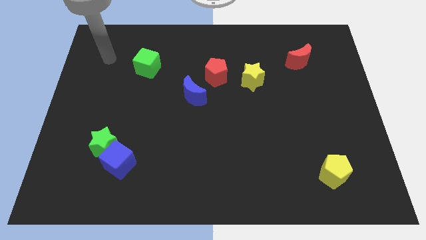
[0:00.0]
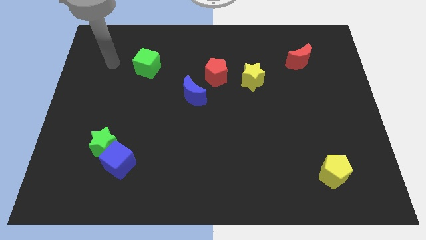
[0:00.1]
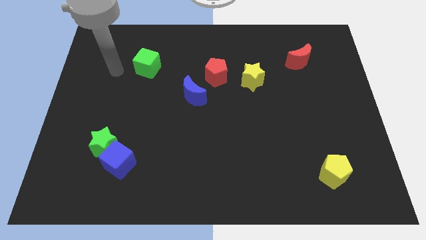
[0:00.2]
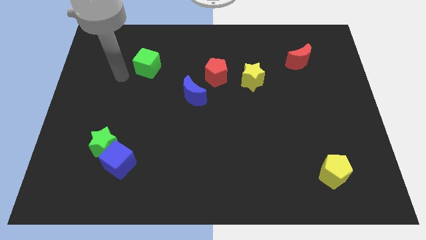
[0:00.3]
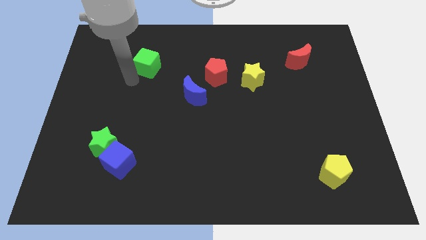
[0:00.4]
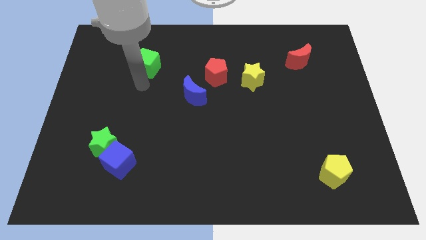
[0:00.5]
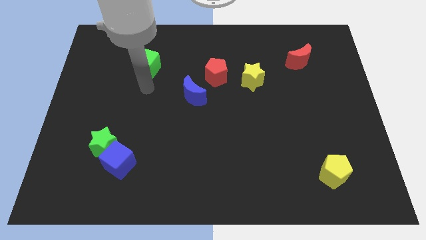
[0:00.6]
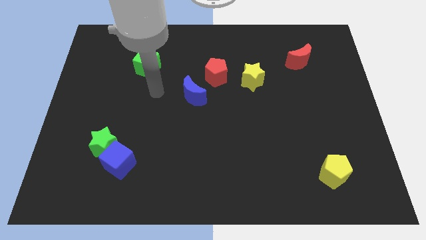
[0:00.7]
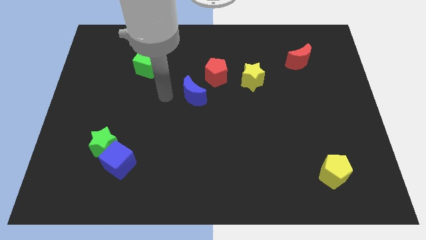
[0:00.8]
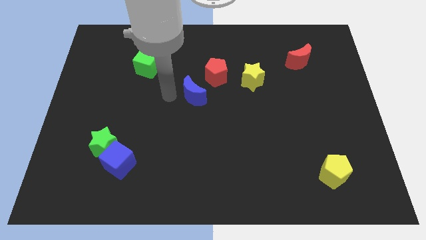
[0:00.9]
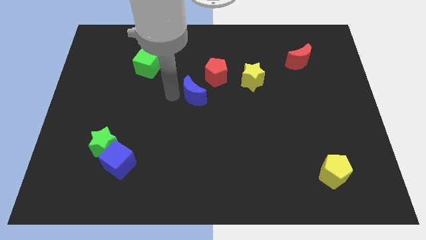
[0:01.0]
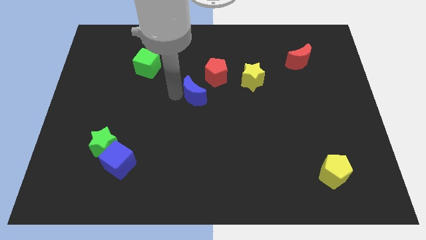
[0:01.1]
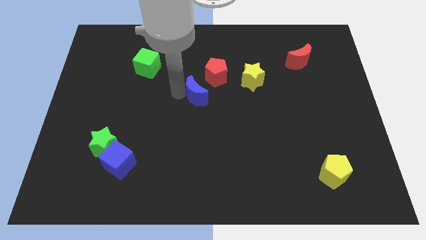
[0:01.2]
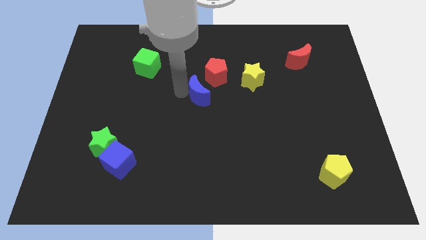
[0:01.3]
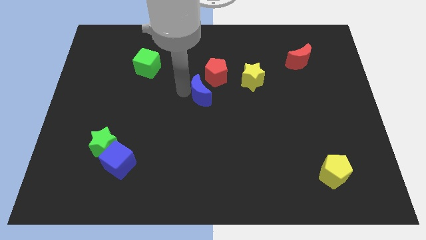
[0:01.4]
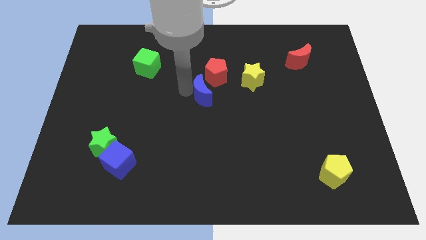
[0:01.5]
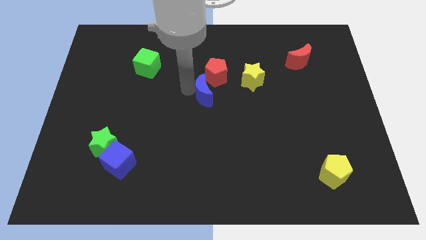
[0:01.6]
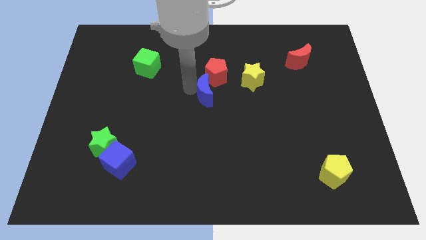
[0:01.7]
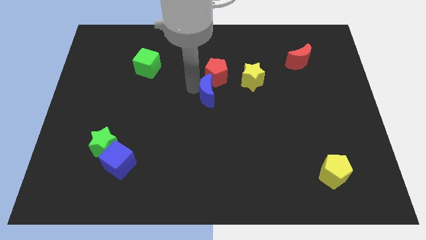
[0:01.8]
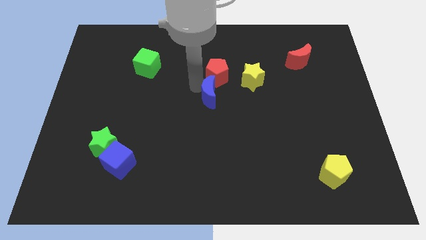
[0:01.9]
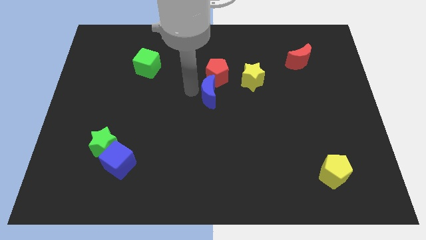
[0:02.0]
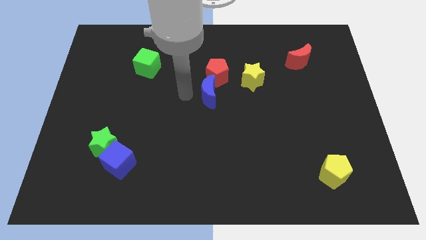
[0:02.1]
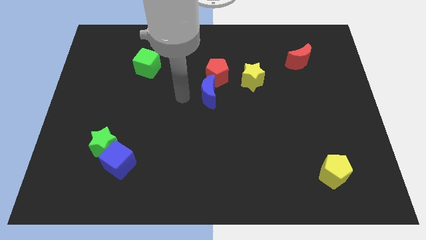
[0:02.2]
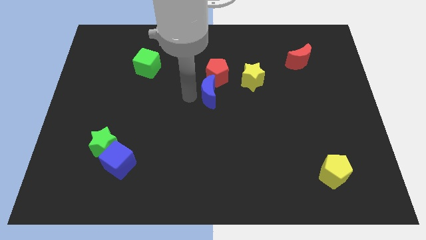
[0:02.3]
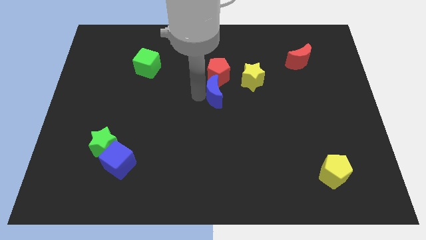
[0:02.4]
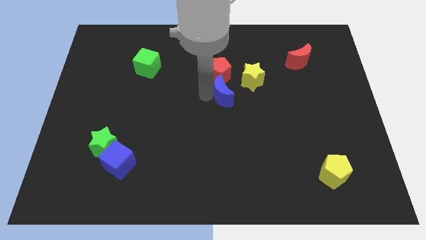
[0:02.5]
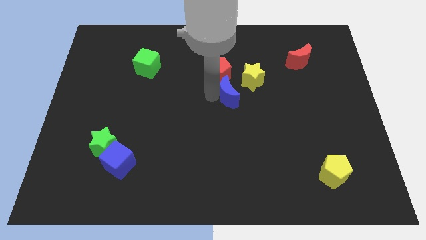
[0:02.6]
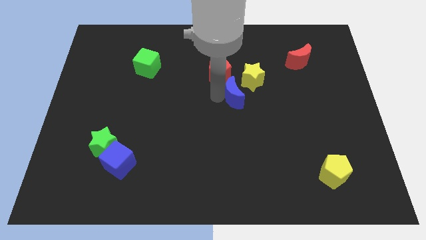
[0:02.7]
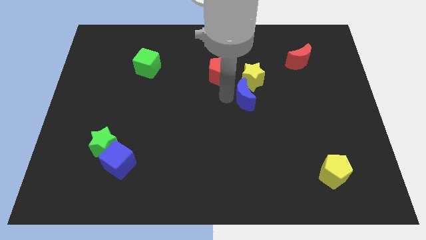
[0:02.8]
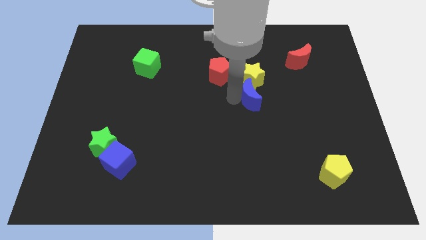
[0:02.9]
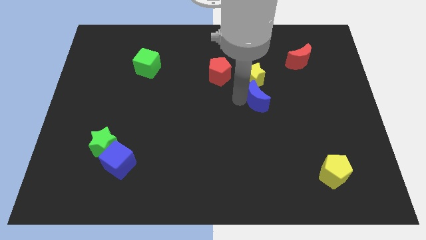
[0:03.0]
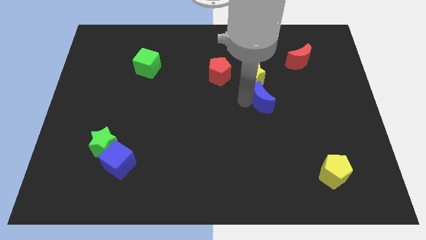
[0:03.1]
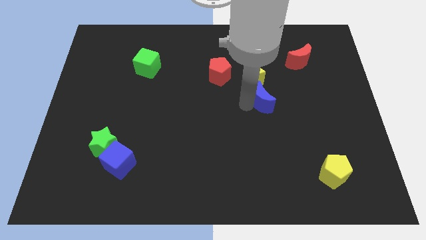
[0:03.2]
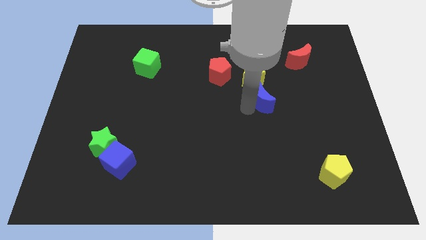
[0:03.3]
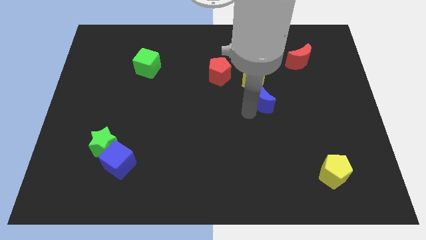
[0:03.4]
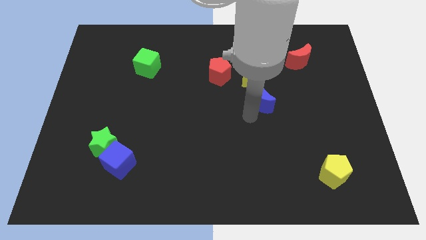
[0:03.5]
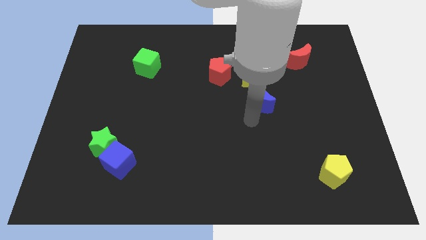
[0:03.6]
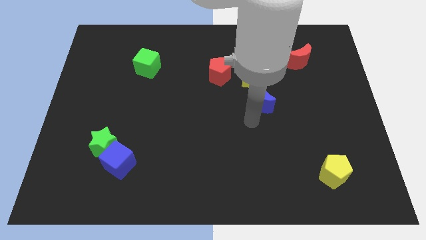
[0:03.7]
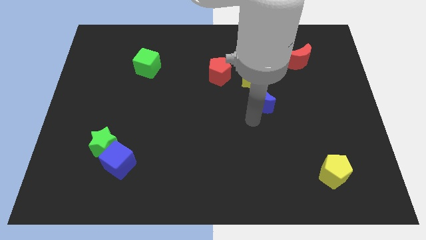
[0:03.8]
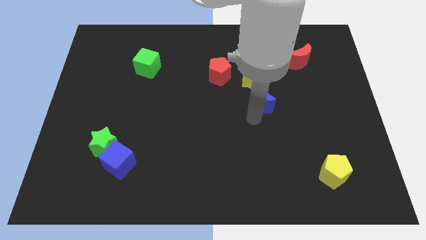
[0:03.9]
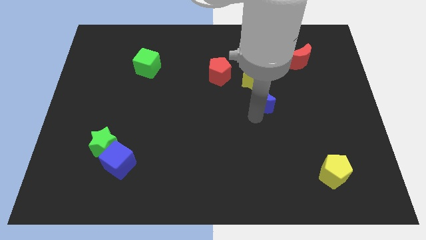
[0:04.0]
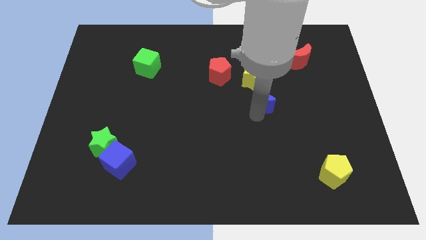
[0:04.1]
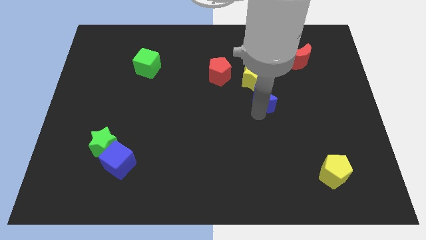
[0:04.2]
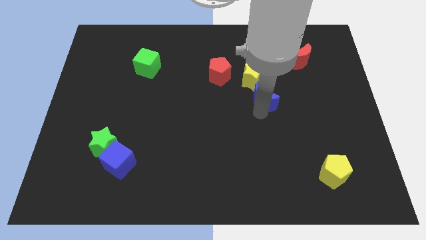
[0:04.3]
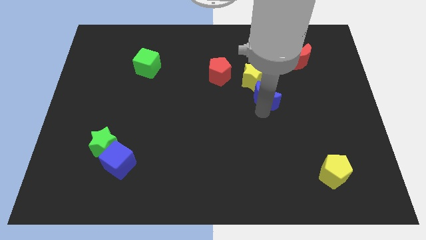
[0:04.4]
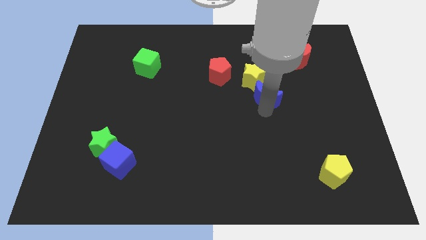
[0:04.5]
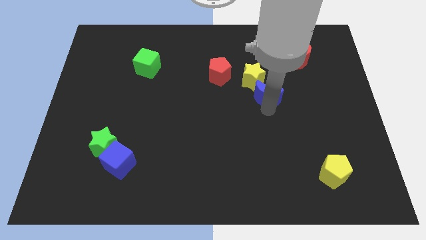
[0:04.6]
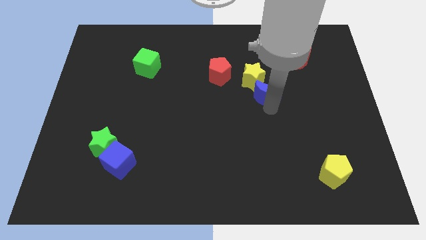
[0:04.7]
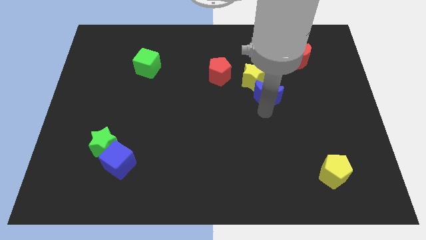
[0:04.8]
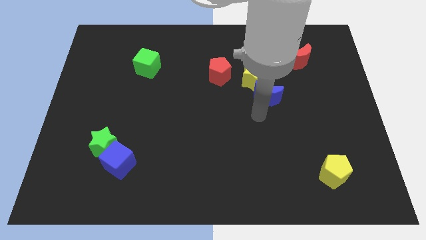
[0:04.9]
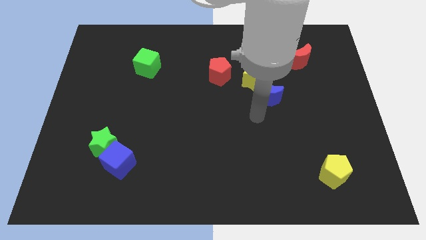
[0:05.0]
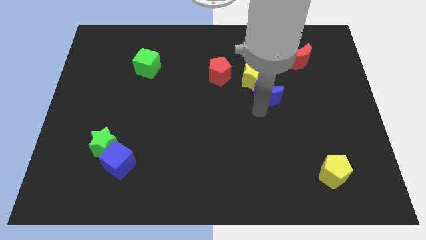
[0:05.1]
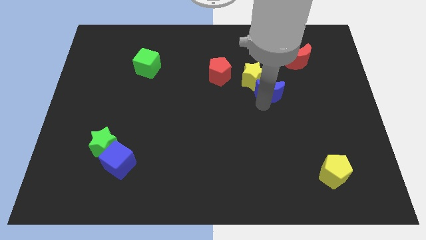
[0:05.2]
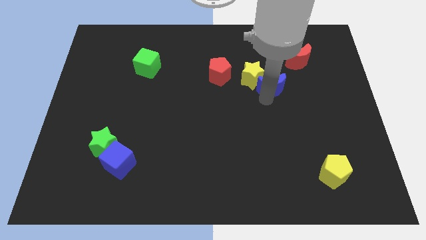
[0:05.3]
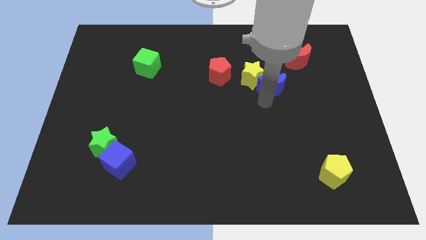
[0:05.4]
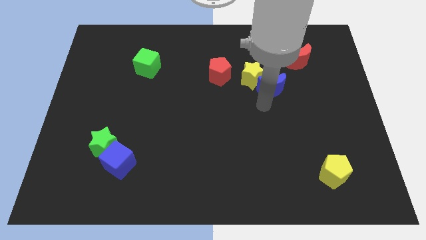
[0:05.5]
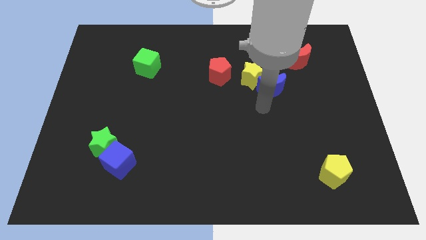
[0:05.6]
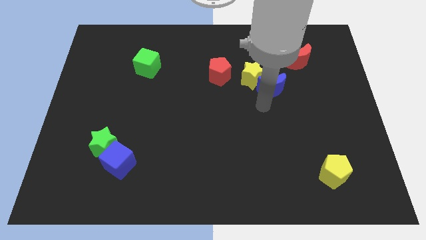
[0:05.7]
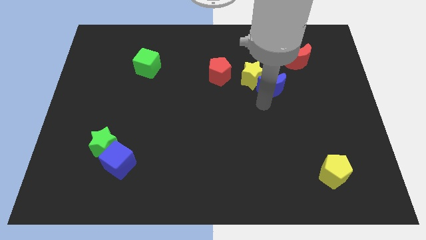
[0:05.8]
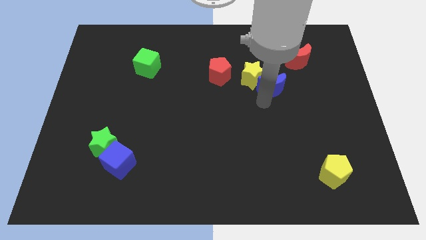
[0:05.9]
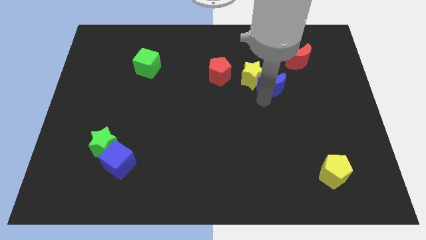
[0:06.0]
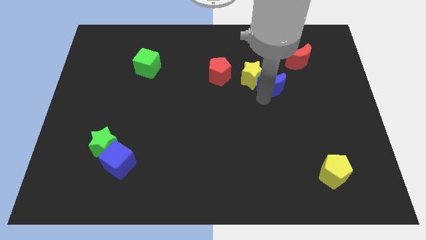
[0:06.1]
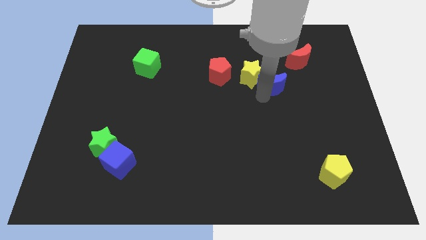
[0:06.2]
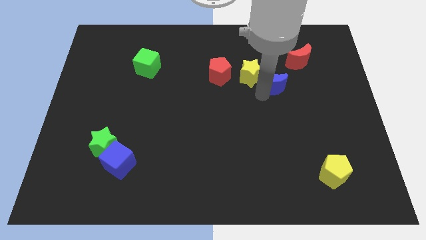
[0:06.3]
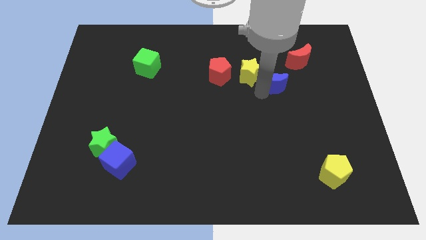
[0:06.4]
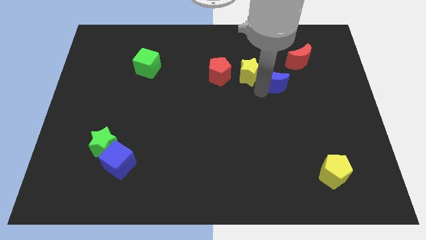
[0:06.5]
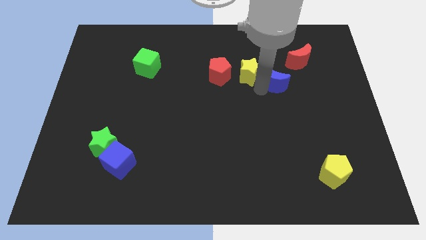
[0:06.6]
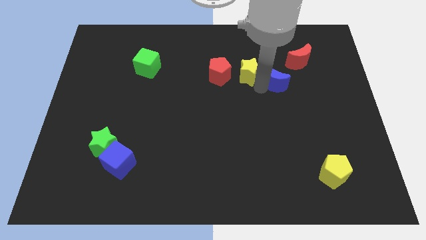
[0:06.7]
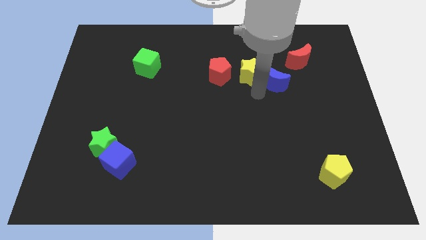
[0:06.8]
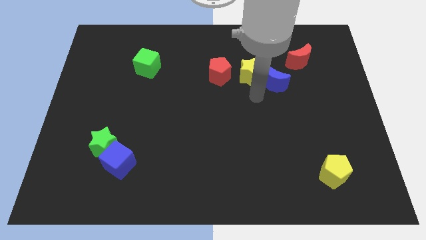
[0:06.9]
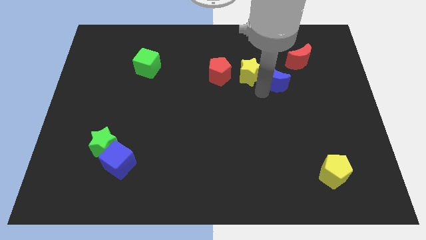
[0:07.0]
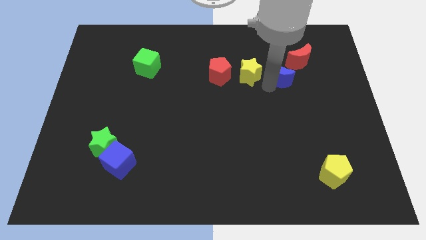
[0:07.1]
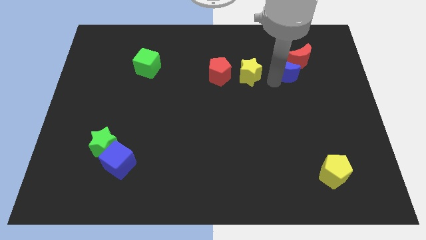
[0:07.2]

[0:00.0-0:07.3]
push the blue moon towards the red moon

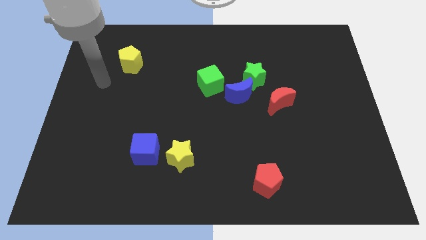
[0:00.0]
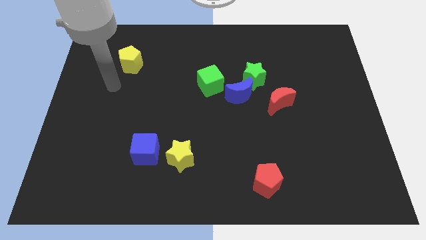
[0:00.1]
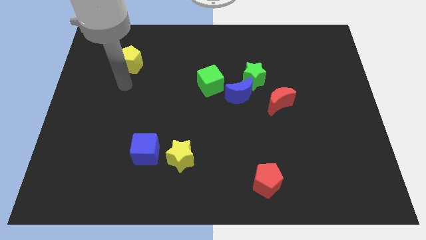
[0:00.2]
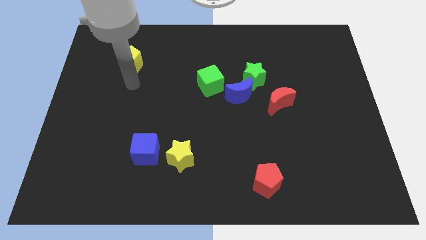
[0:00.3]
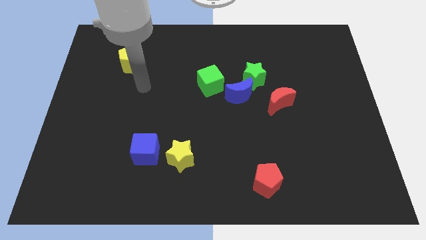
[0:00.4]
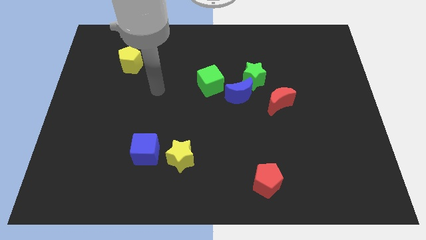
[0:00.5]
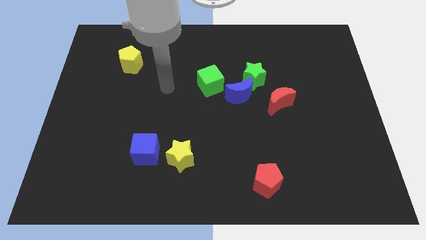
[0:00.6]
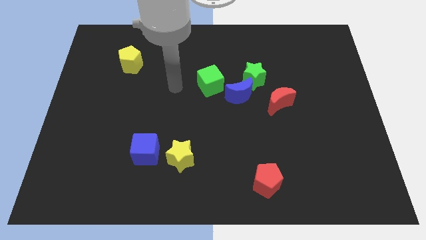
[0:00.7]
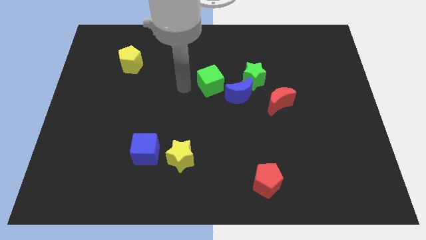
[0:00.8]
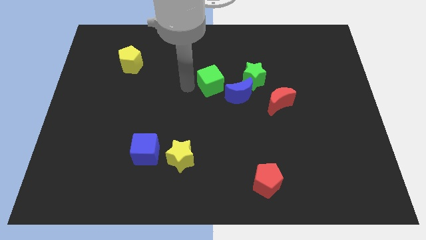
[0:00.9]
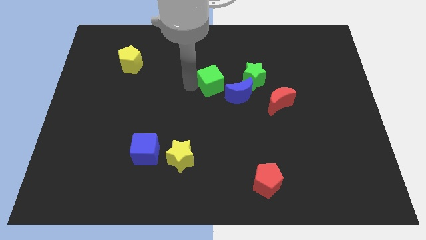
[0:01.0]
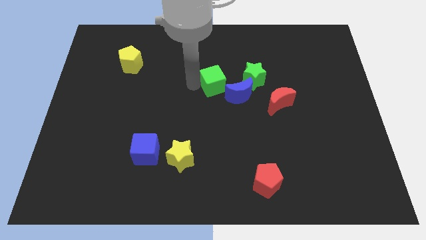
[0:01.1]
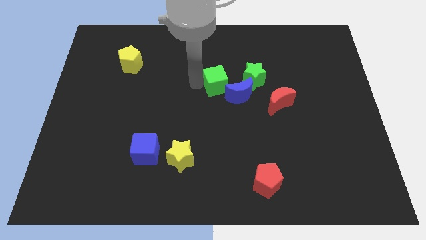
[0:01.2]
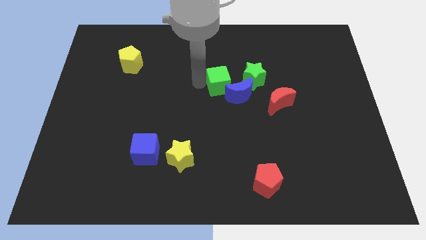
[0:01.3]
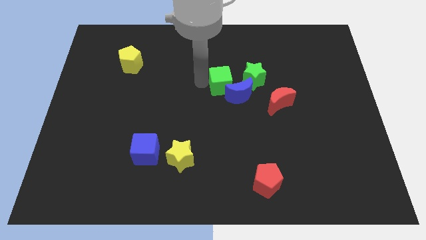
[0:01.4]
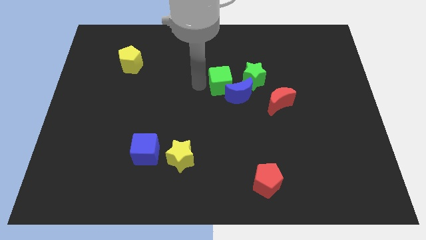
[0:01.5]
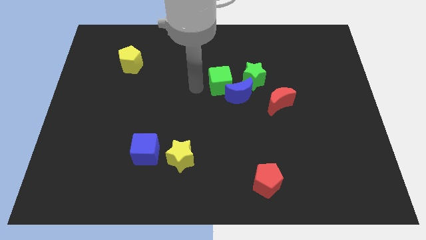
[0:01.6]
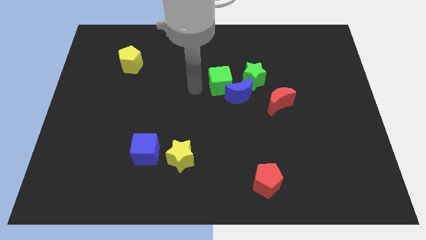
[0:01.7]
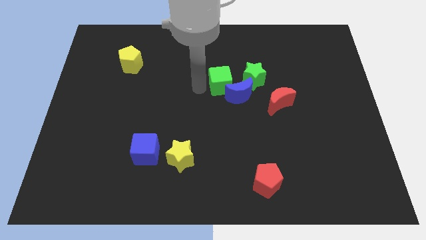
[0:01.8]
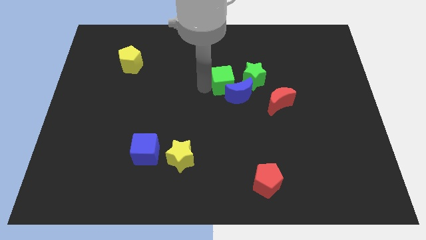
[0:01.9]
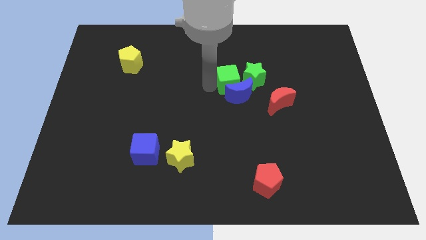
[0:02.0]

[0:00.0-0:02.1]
put the green cube towards the green star
